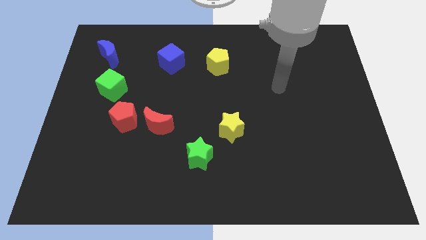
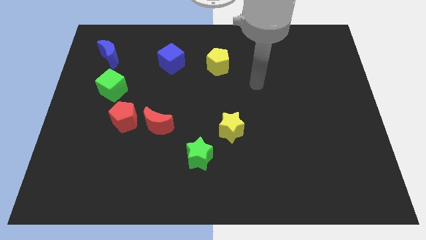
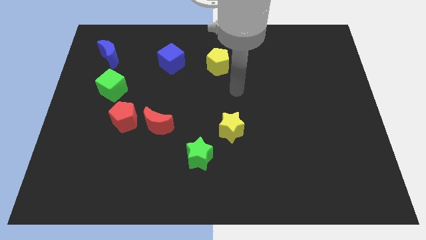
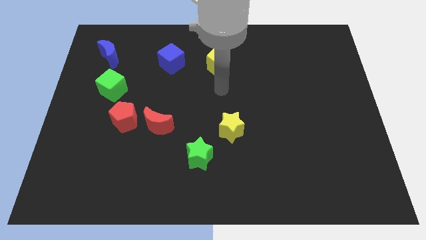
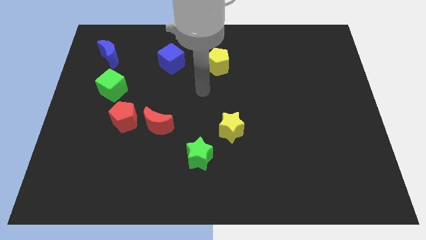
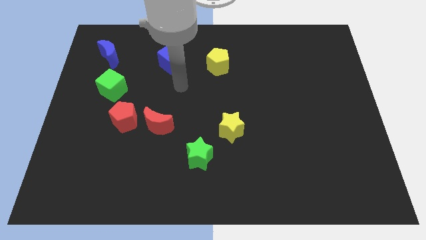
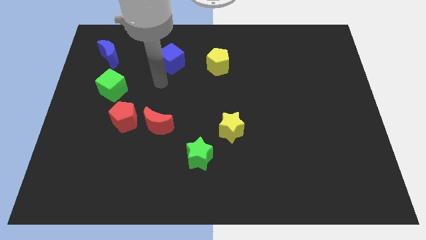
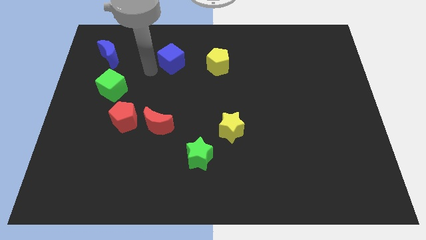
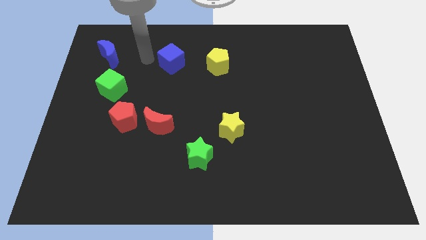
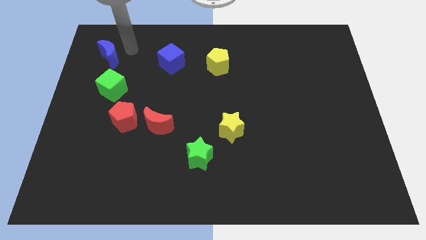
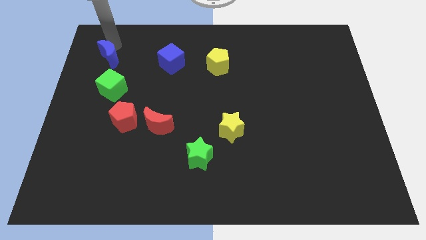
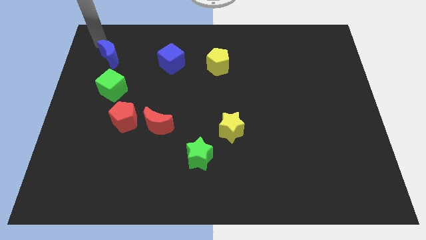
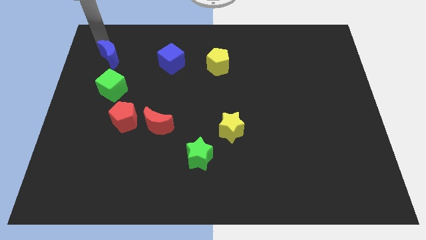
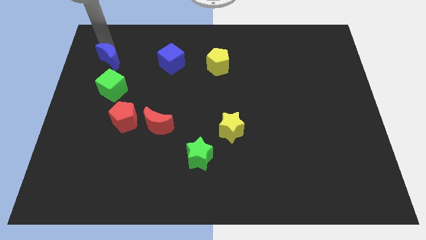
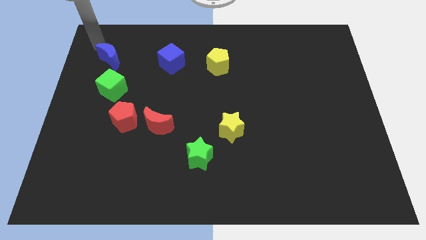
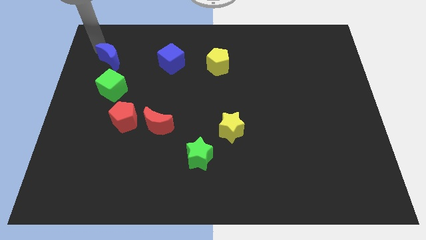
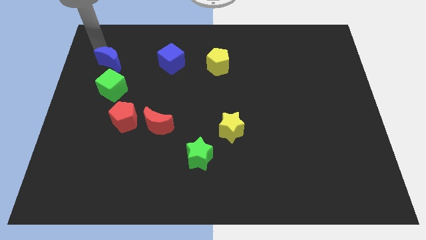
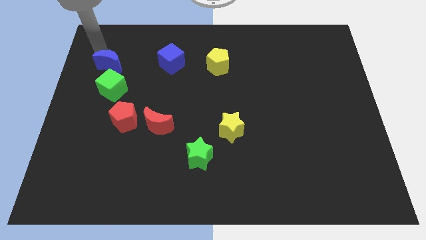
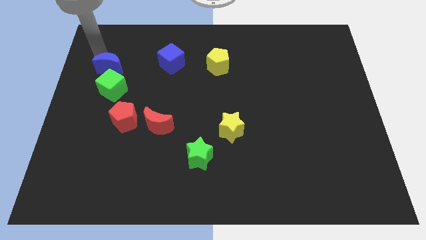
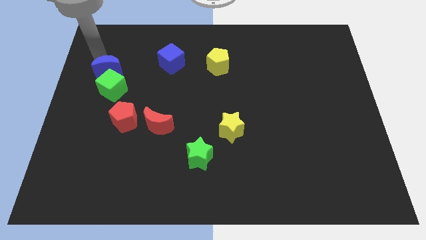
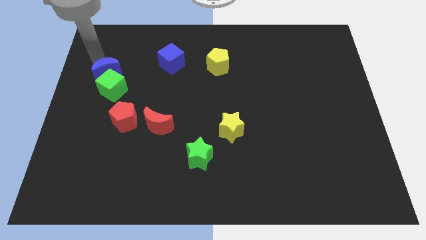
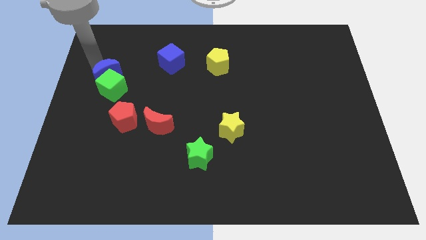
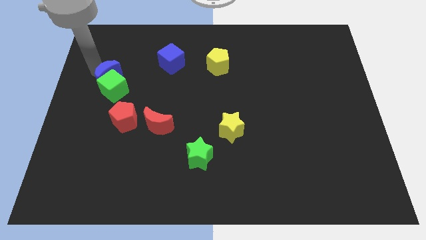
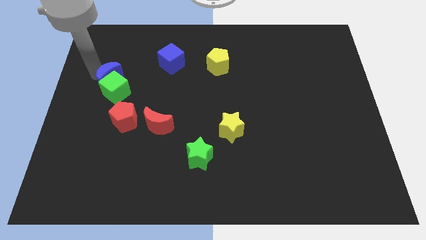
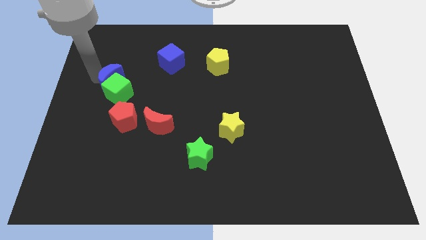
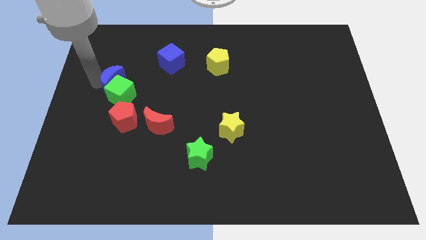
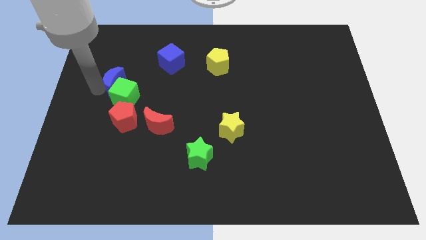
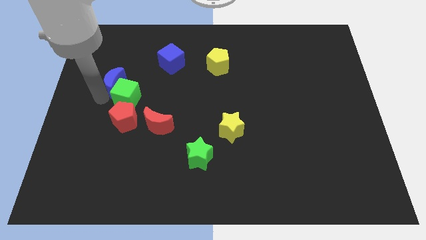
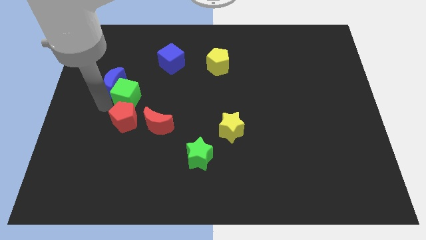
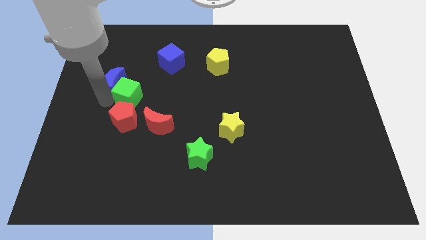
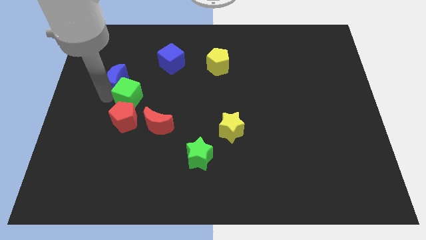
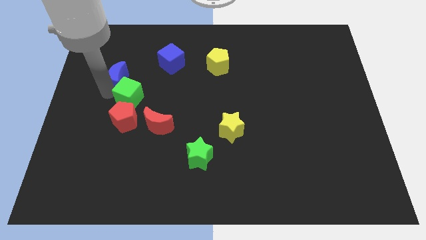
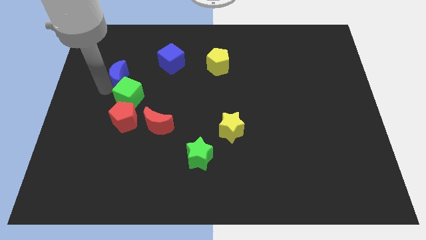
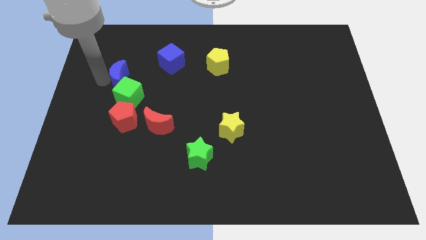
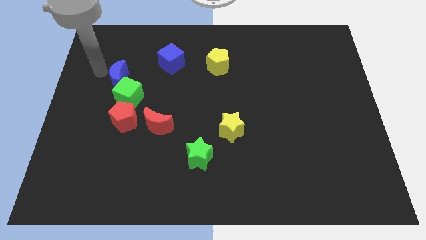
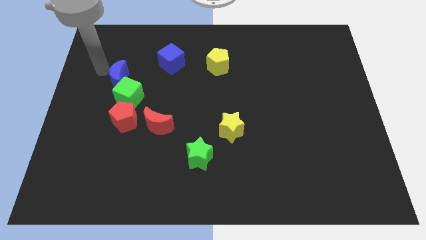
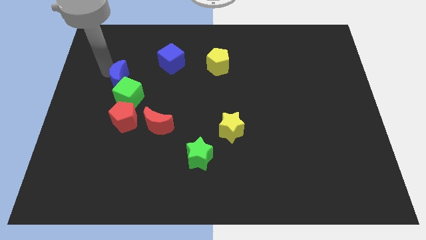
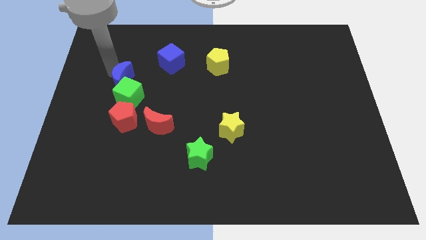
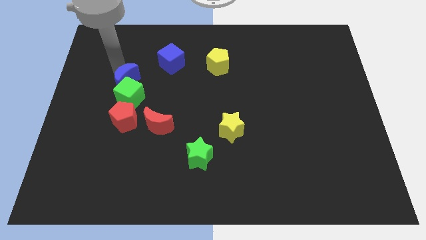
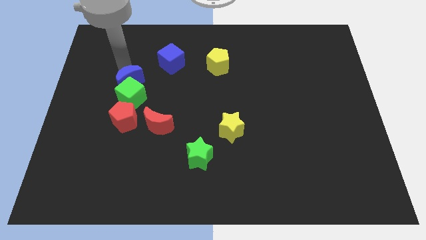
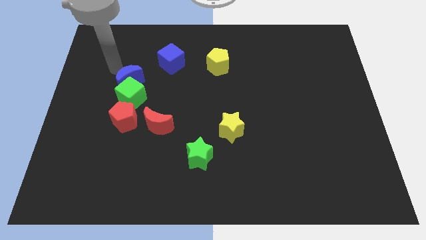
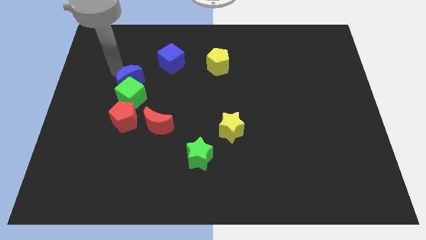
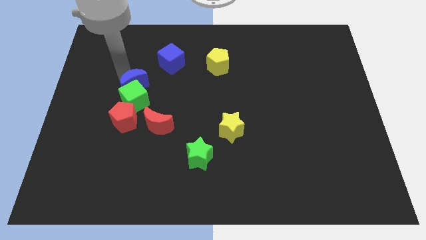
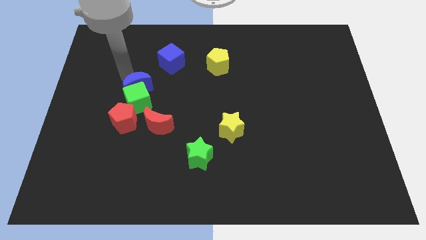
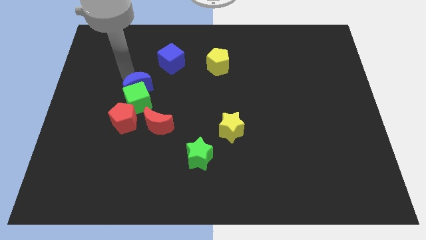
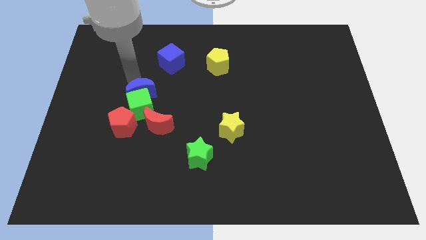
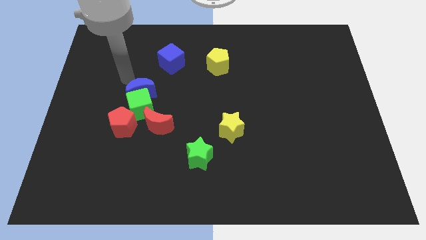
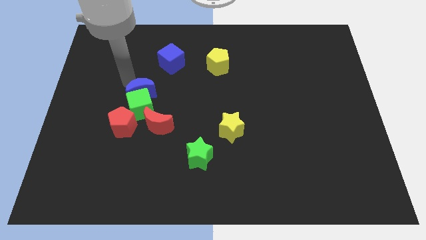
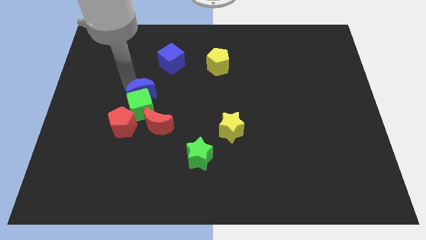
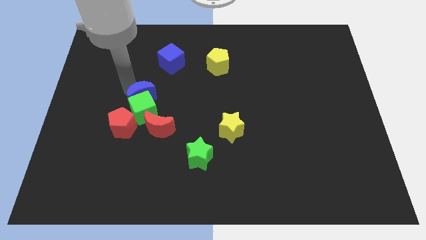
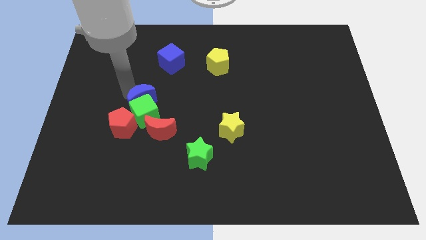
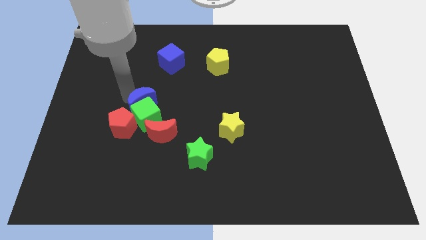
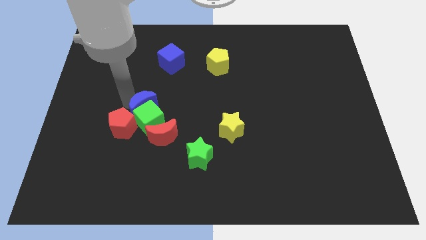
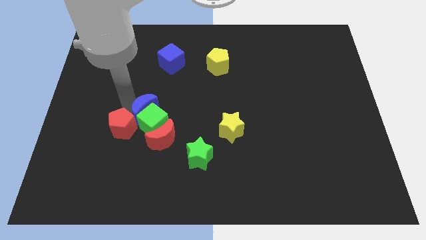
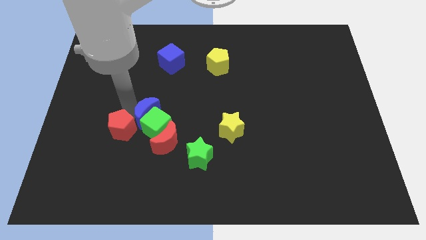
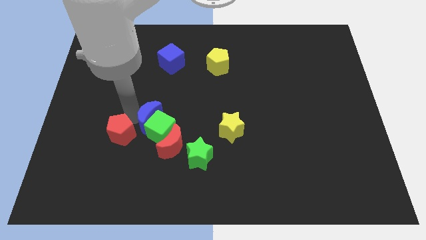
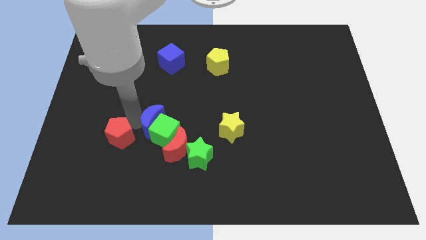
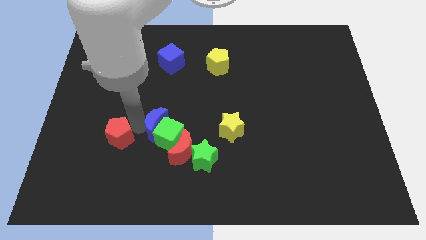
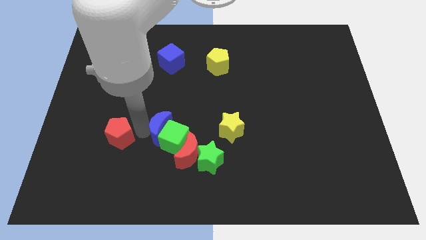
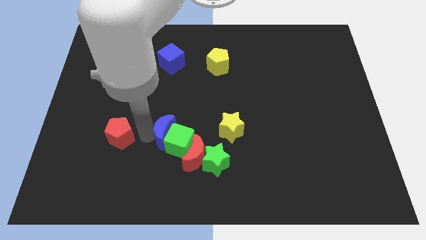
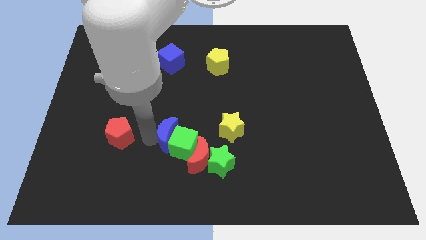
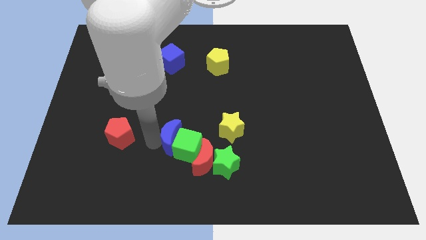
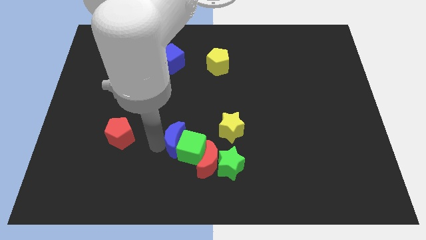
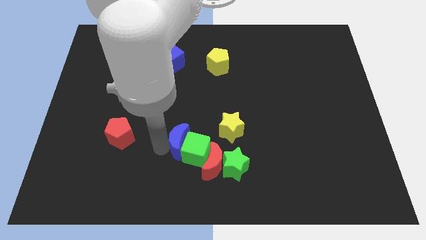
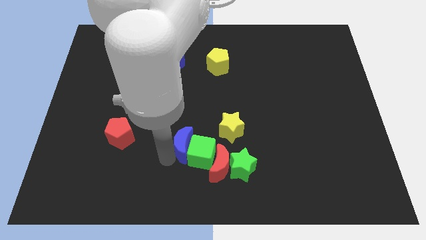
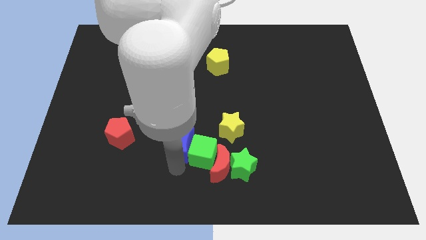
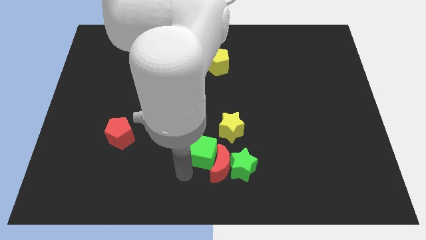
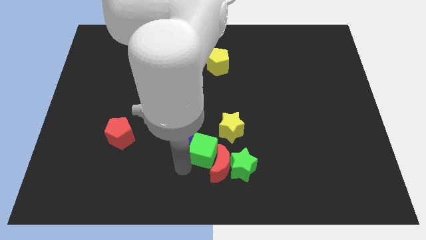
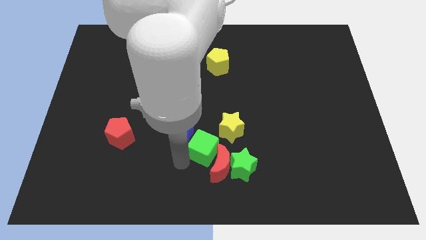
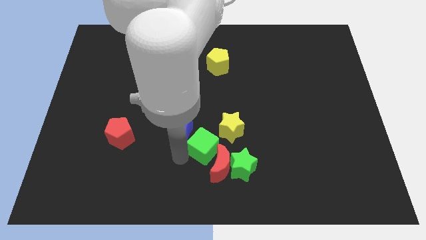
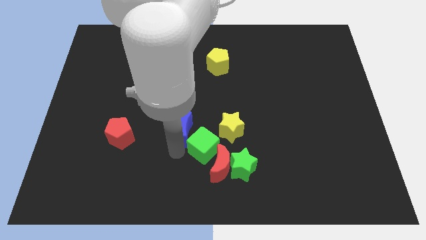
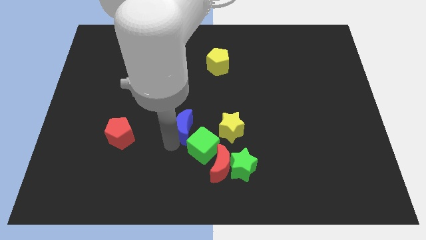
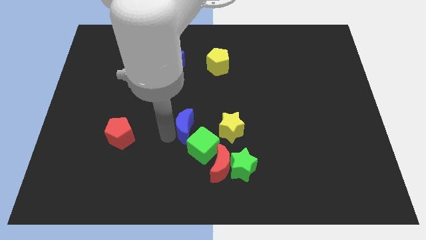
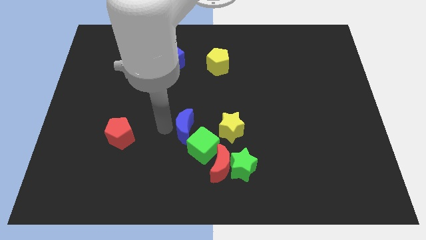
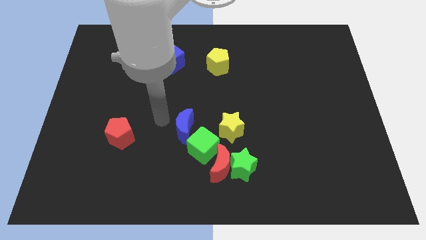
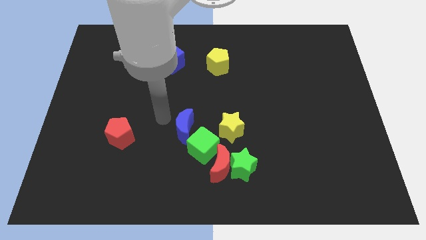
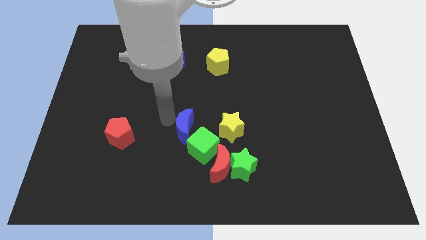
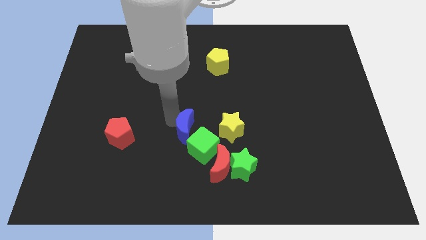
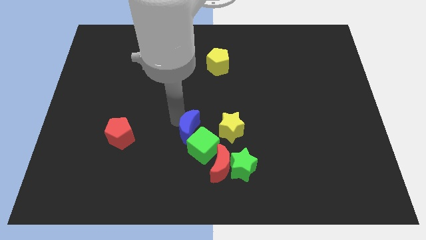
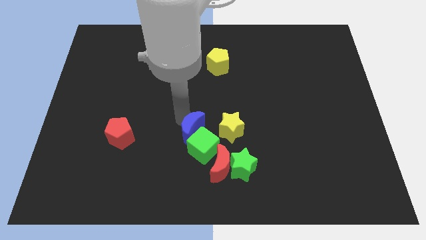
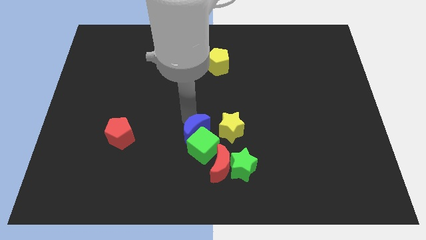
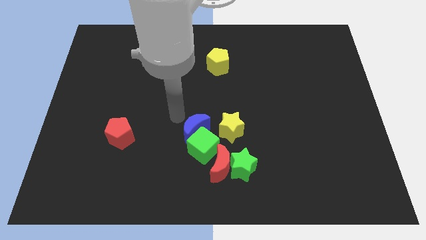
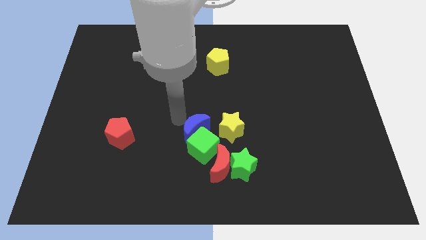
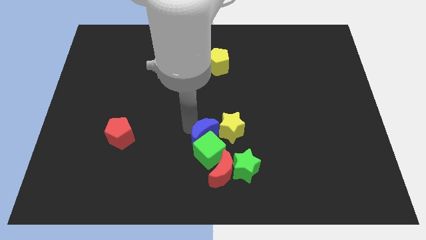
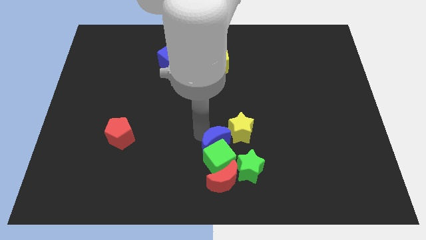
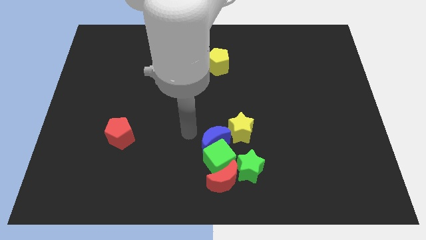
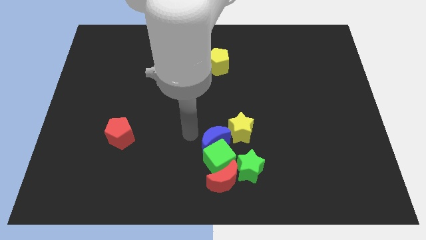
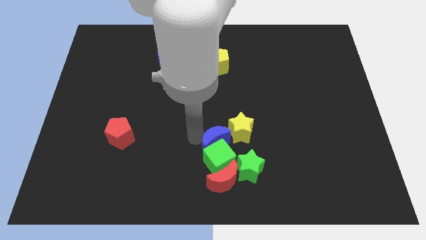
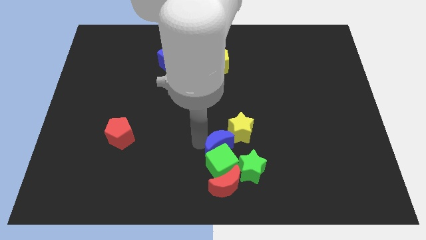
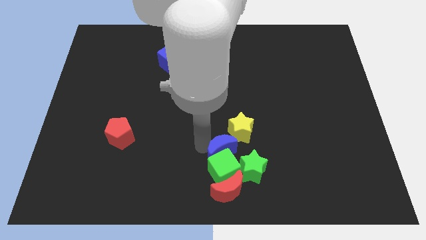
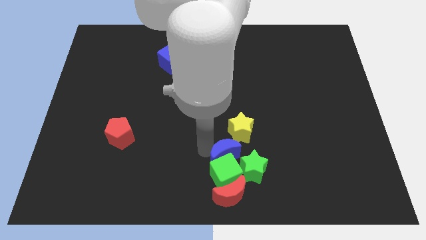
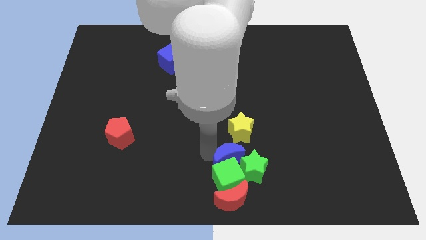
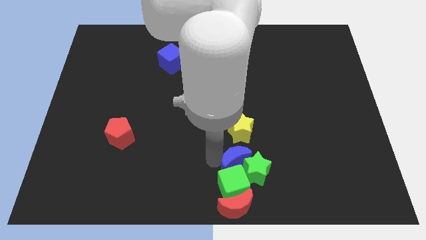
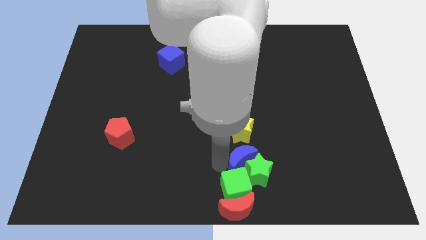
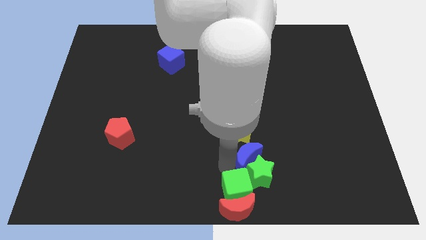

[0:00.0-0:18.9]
move the blue moon to the bottom right side of the yellow star
